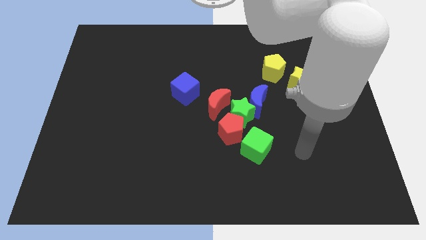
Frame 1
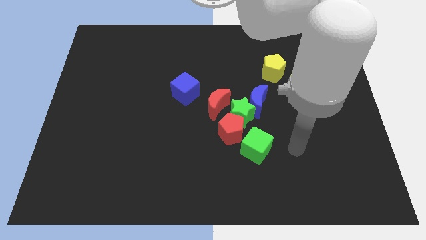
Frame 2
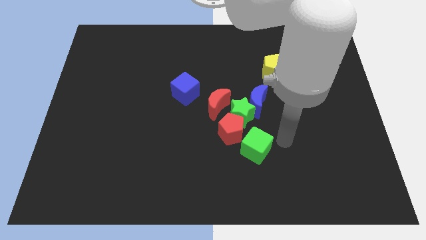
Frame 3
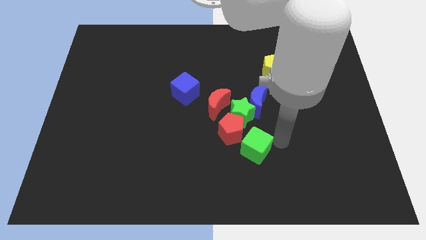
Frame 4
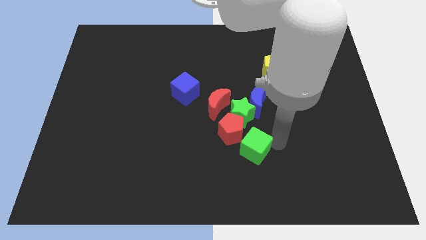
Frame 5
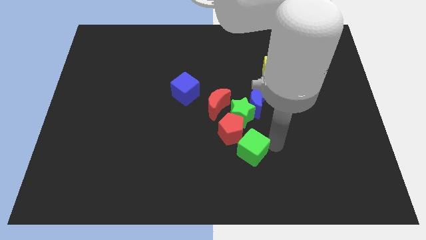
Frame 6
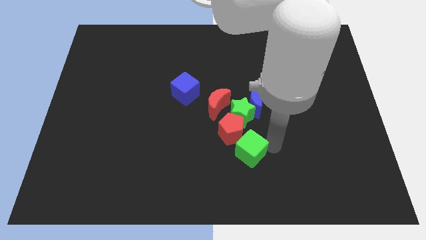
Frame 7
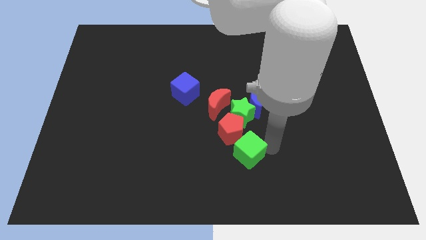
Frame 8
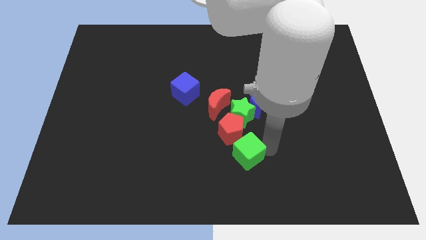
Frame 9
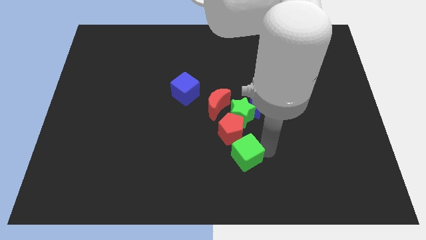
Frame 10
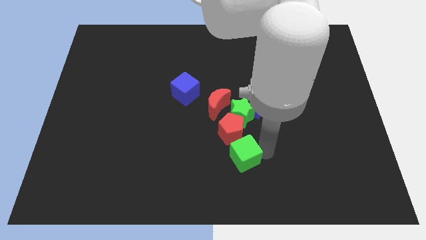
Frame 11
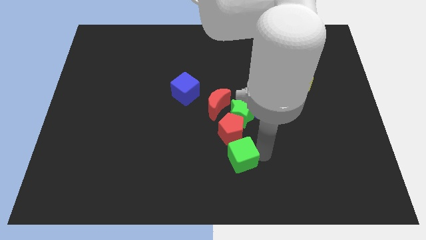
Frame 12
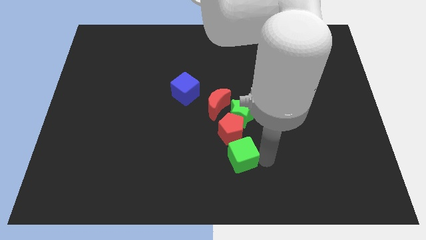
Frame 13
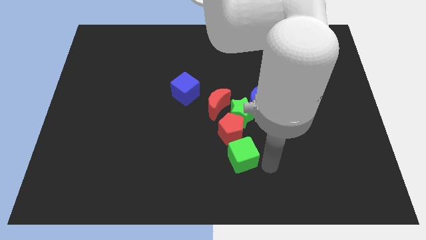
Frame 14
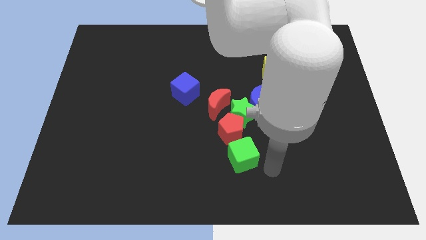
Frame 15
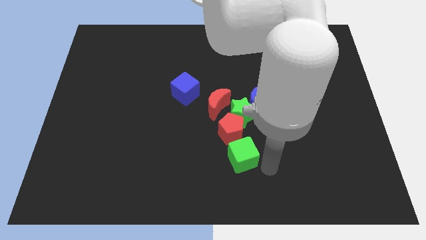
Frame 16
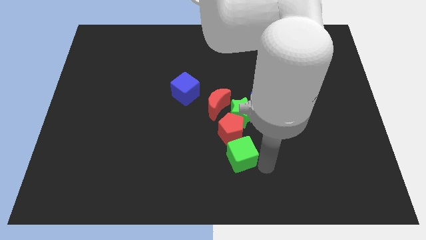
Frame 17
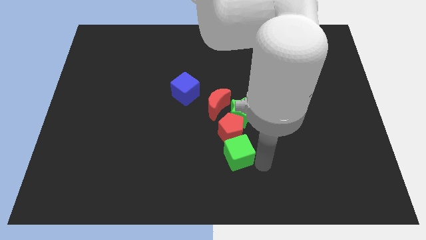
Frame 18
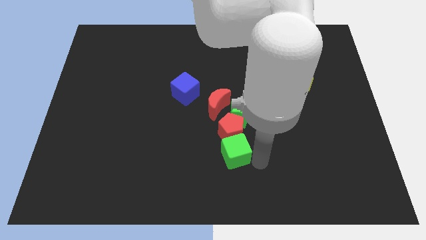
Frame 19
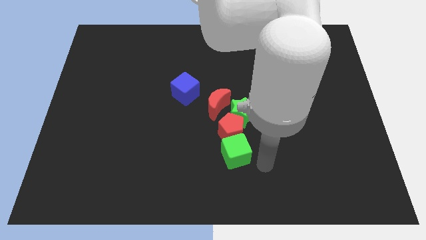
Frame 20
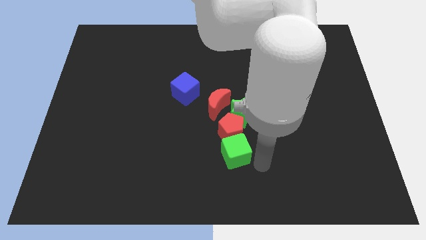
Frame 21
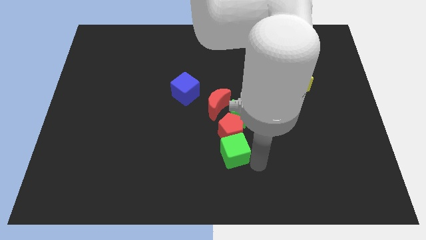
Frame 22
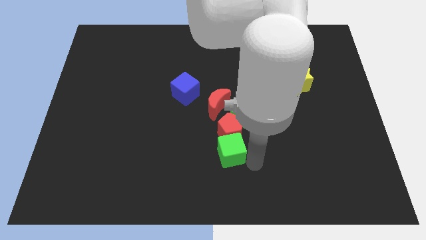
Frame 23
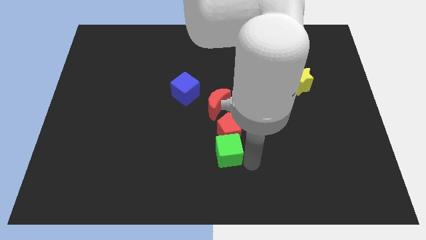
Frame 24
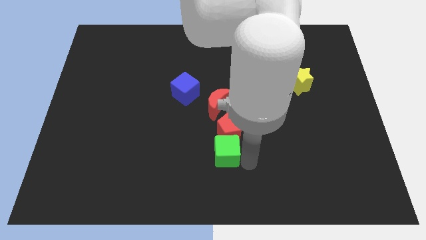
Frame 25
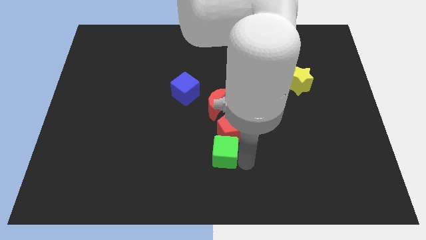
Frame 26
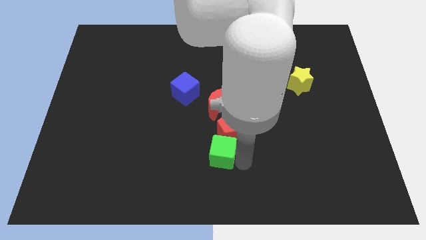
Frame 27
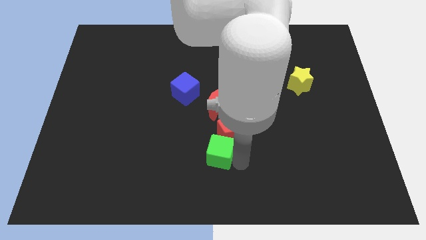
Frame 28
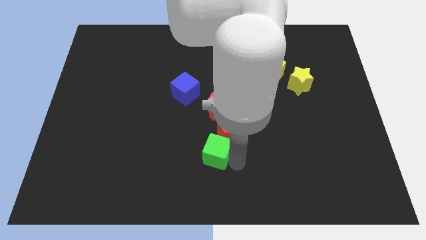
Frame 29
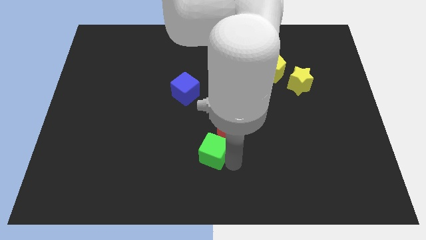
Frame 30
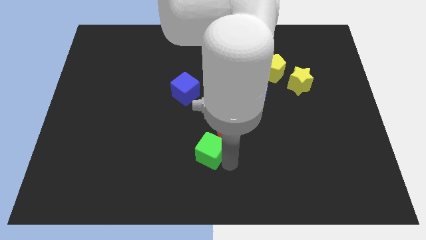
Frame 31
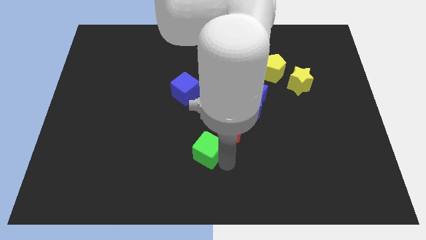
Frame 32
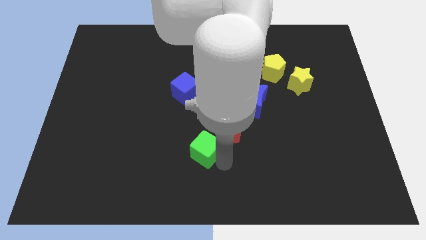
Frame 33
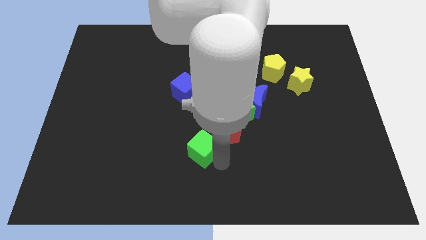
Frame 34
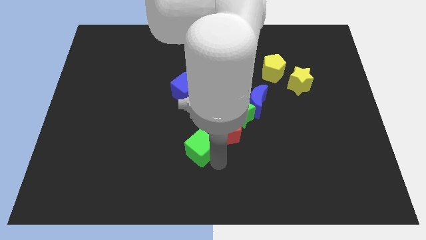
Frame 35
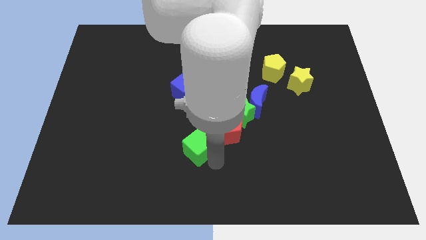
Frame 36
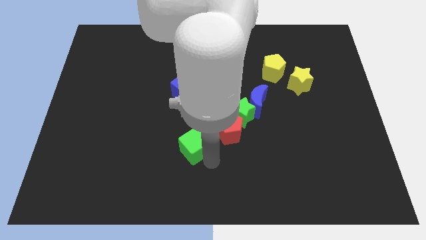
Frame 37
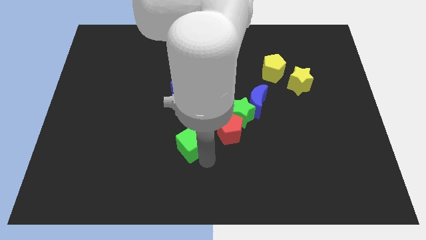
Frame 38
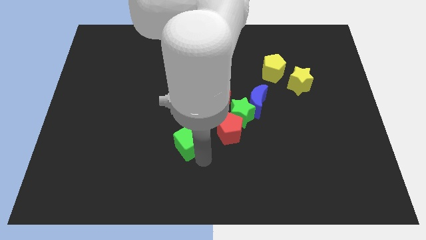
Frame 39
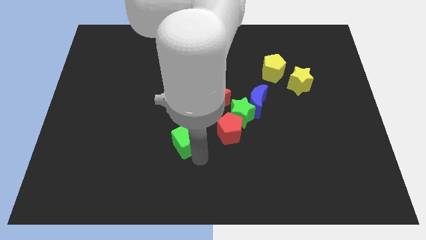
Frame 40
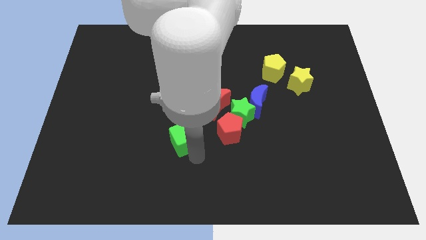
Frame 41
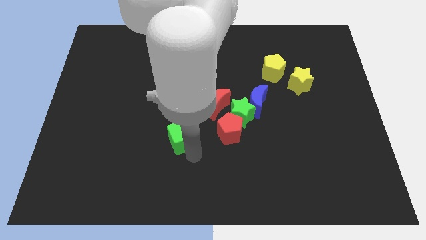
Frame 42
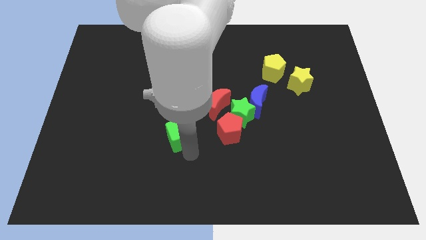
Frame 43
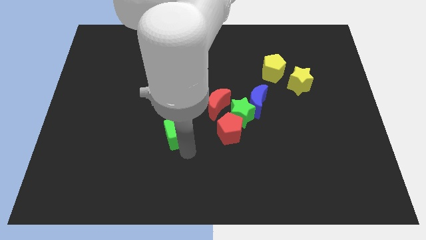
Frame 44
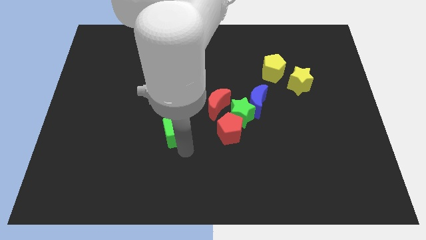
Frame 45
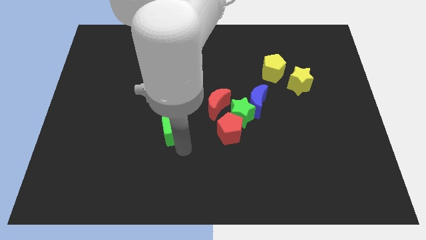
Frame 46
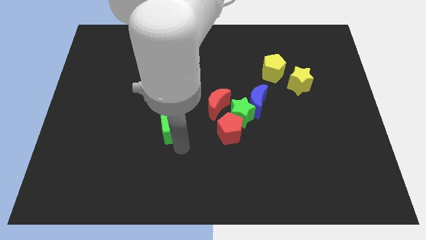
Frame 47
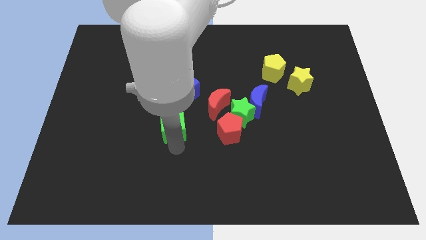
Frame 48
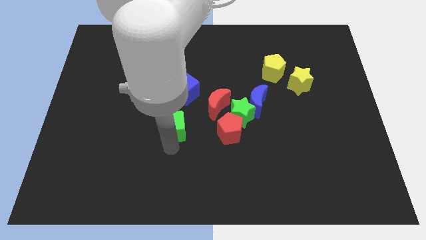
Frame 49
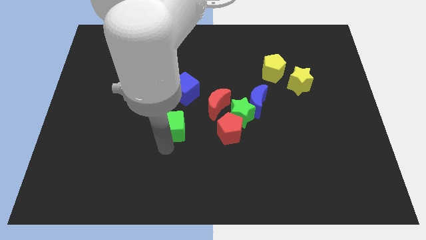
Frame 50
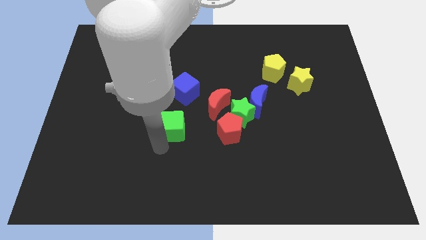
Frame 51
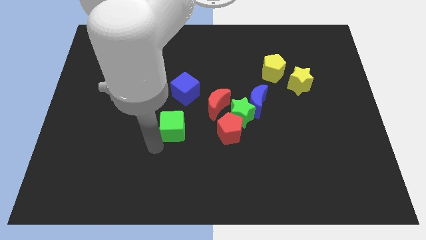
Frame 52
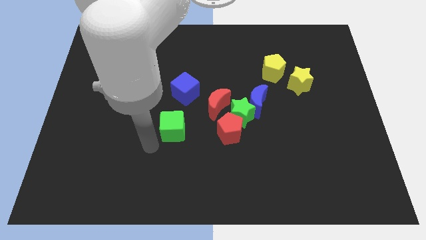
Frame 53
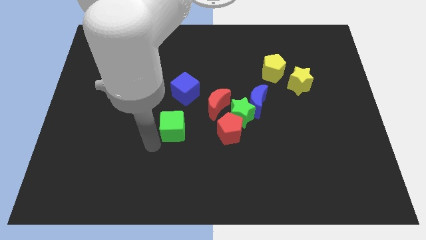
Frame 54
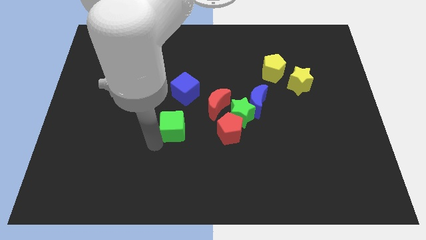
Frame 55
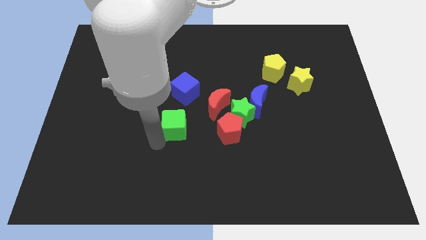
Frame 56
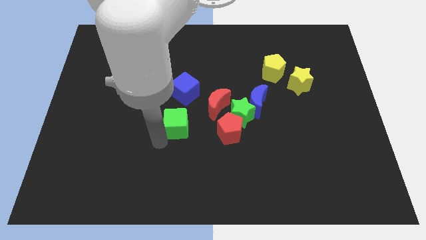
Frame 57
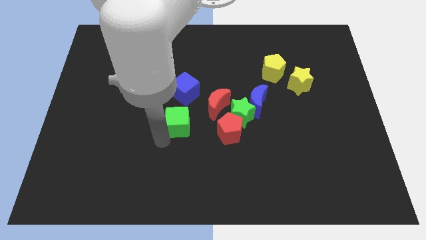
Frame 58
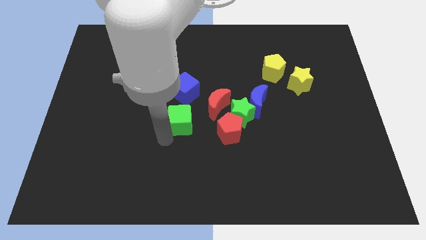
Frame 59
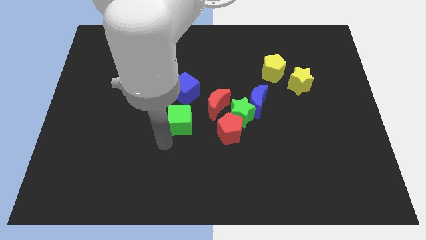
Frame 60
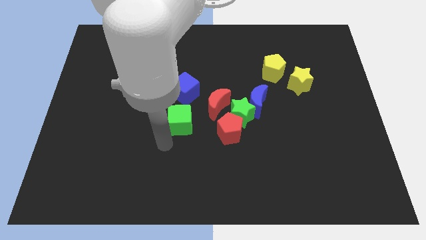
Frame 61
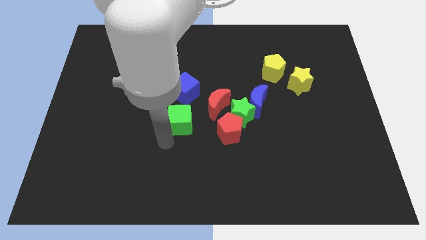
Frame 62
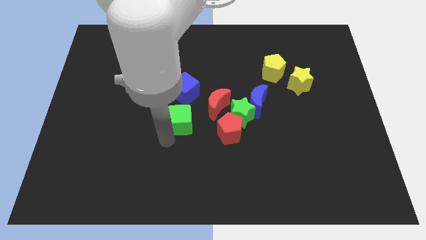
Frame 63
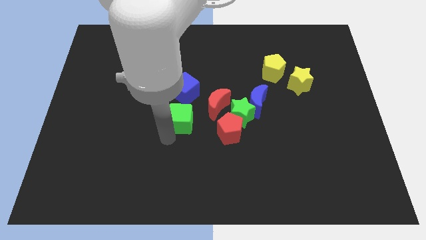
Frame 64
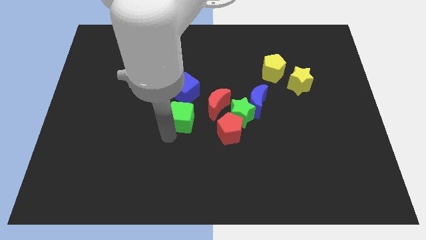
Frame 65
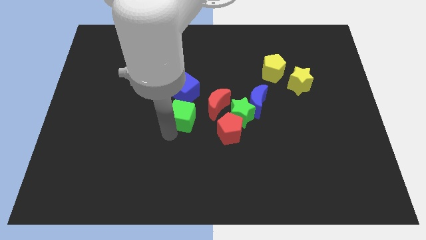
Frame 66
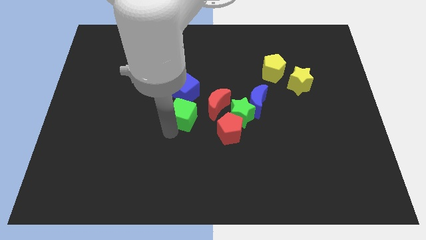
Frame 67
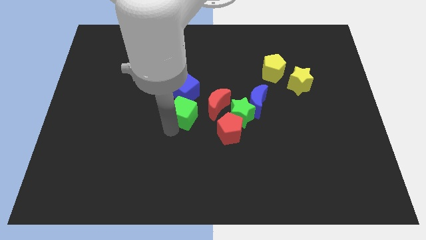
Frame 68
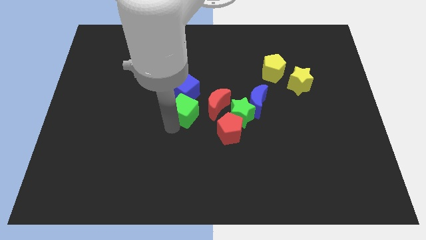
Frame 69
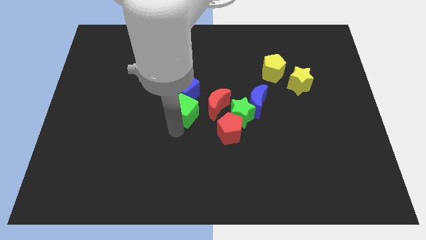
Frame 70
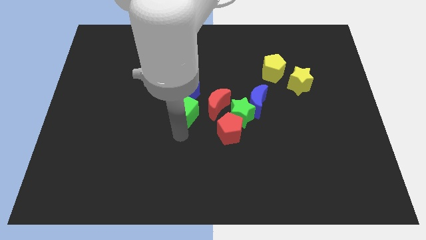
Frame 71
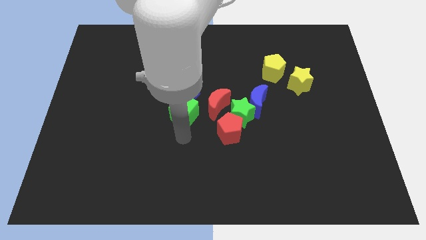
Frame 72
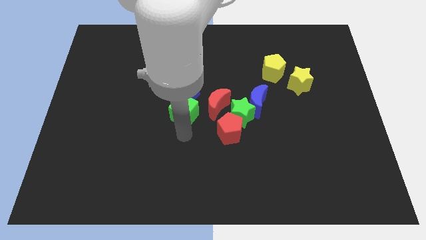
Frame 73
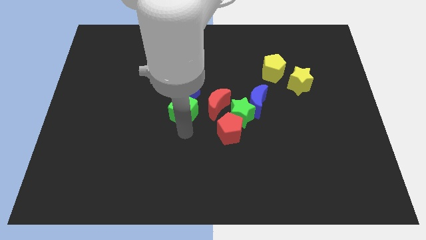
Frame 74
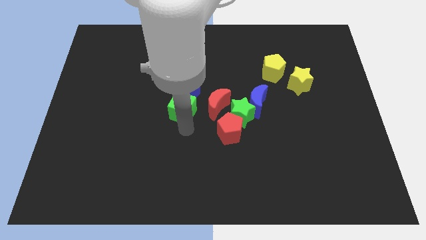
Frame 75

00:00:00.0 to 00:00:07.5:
put the green cube to the blue cube

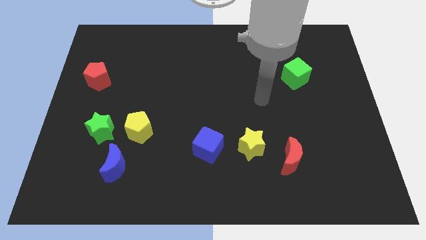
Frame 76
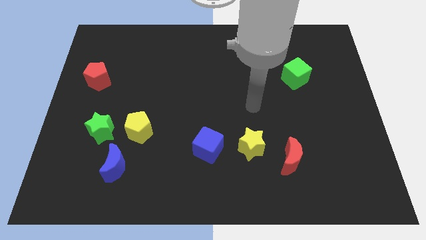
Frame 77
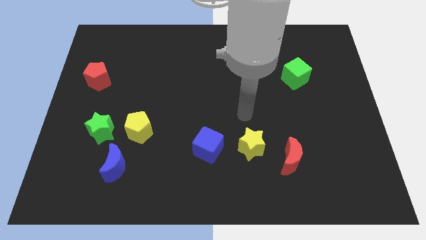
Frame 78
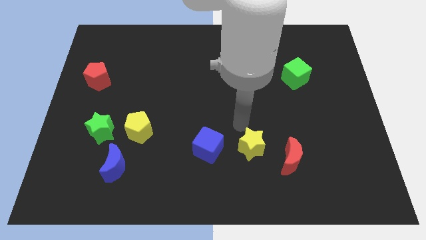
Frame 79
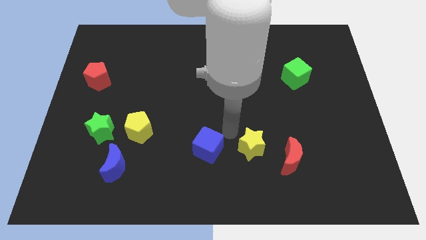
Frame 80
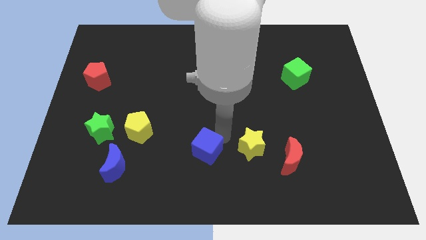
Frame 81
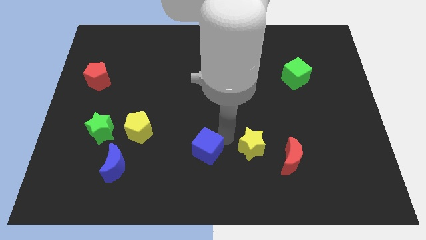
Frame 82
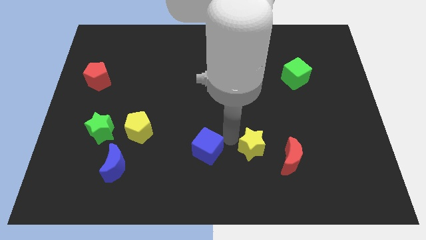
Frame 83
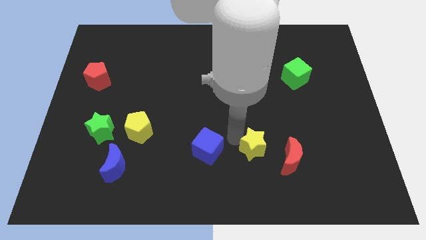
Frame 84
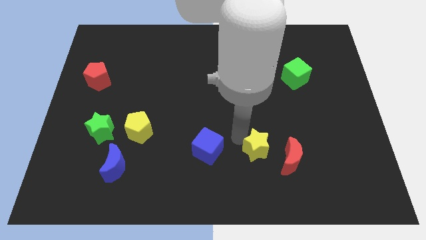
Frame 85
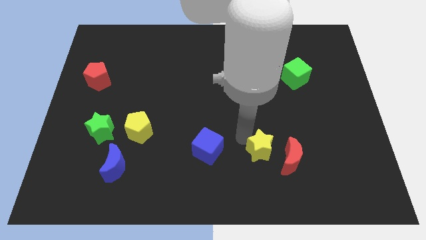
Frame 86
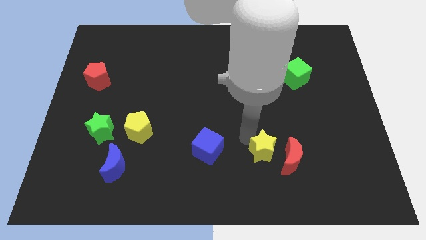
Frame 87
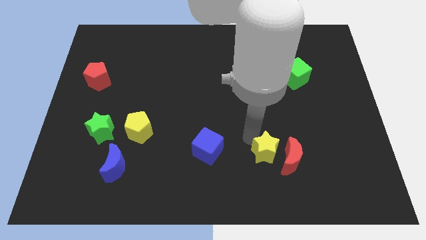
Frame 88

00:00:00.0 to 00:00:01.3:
slide the yellow star close to the red moon
